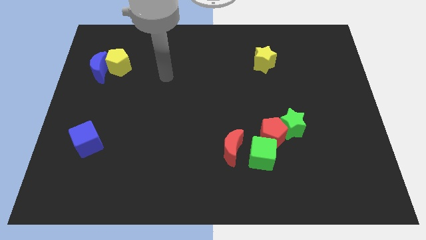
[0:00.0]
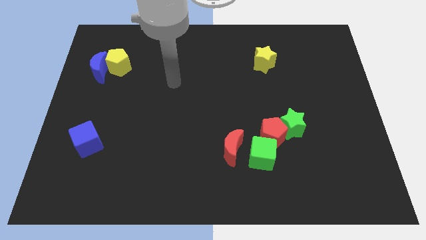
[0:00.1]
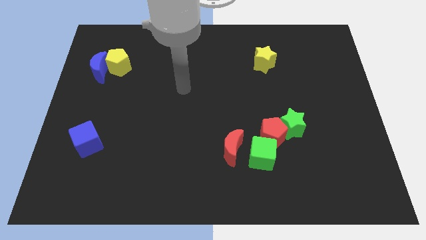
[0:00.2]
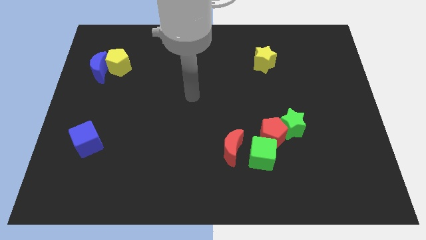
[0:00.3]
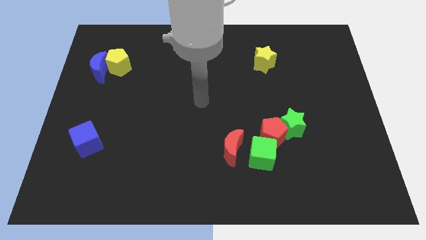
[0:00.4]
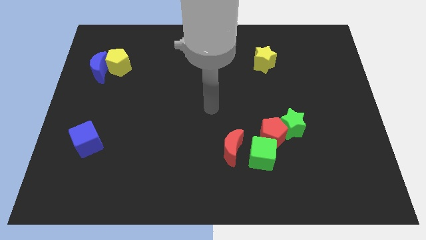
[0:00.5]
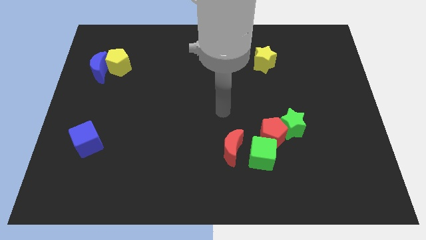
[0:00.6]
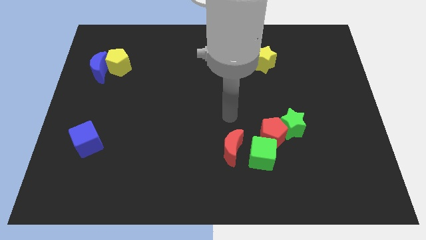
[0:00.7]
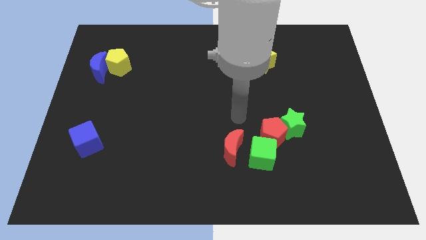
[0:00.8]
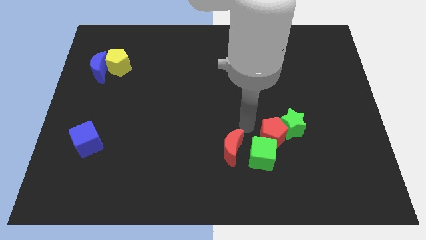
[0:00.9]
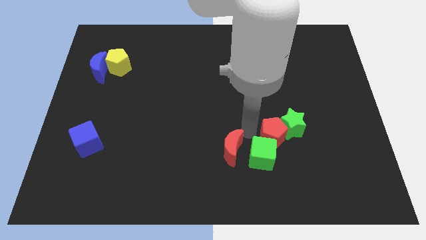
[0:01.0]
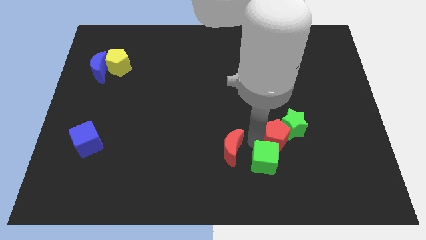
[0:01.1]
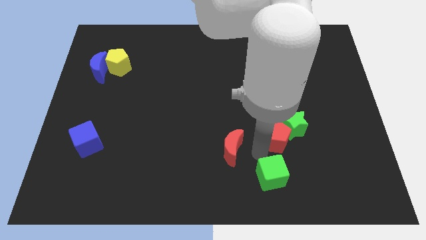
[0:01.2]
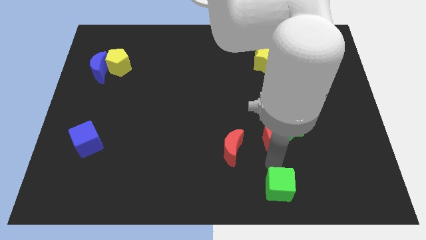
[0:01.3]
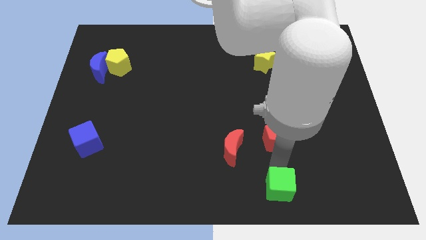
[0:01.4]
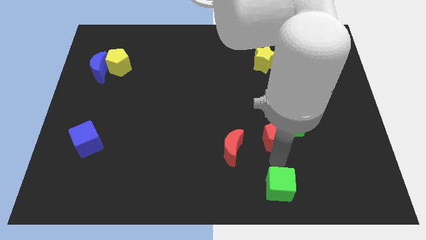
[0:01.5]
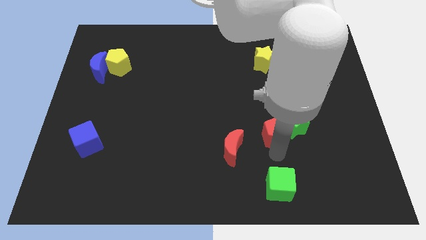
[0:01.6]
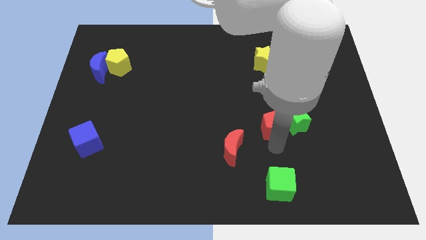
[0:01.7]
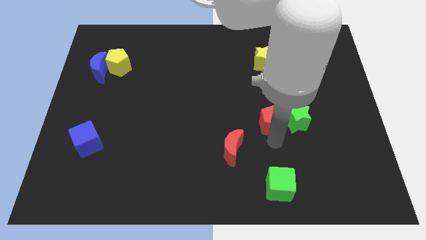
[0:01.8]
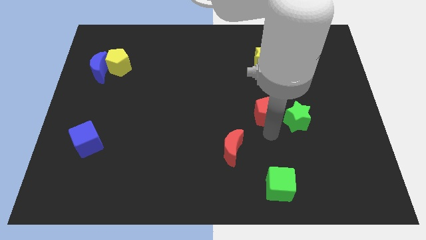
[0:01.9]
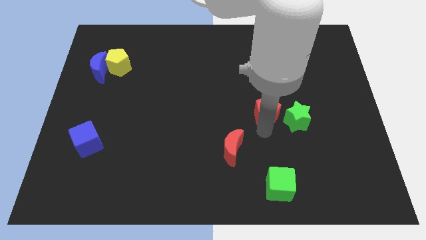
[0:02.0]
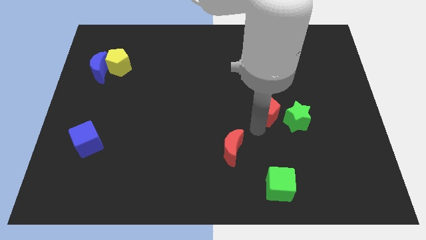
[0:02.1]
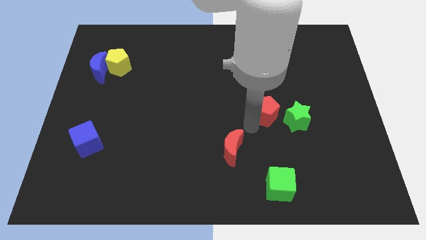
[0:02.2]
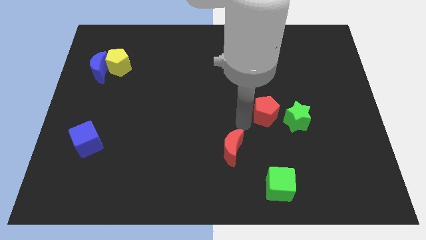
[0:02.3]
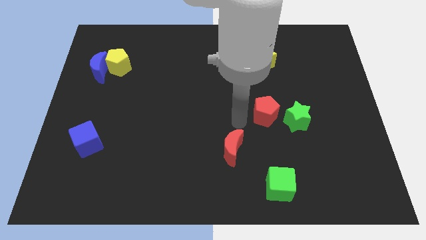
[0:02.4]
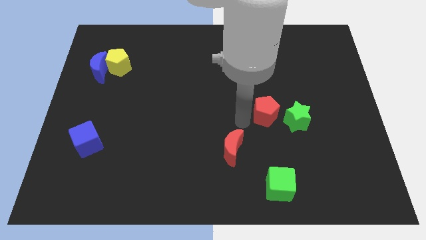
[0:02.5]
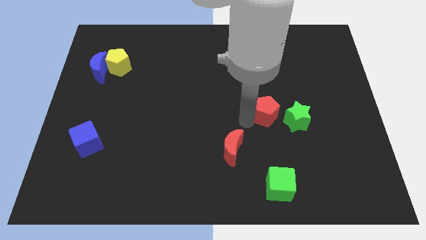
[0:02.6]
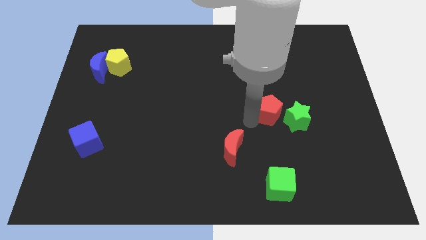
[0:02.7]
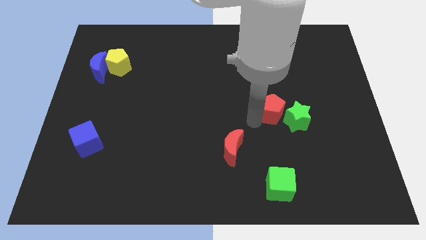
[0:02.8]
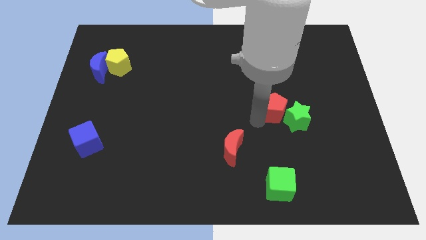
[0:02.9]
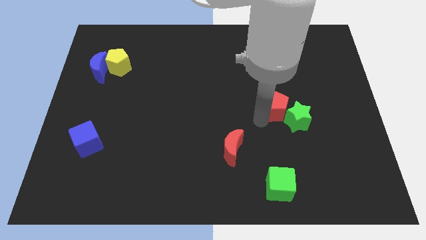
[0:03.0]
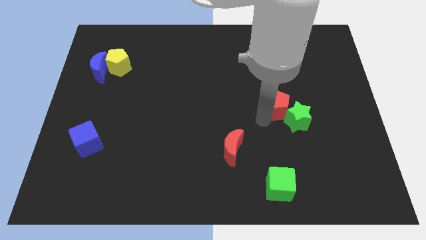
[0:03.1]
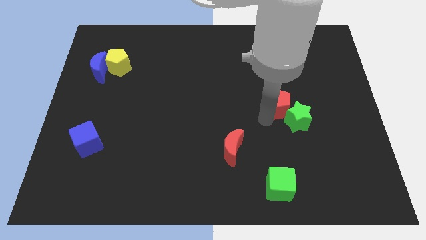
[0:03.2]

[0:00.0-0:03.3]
push the red pentagon up and to the right somewhat

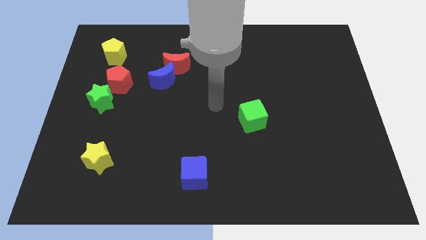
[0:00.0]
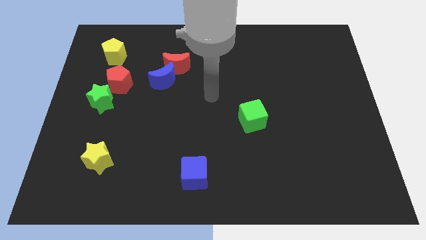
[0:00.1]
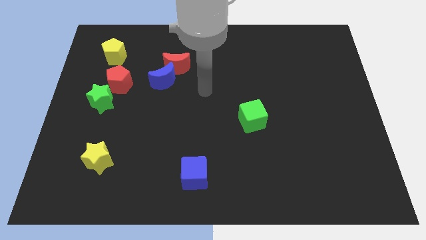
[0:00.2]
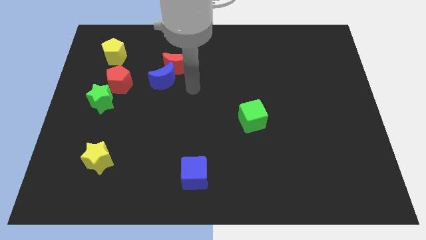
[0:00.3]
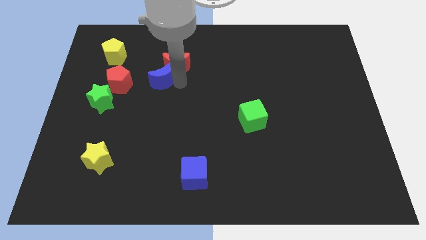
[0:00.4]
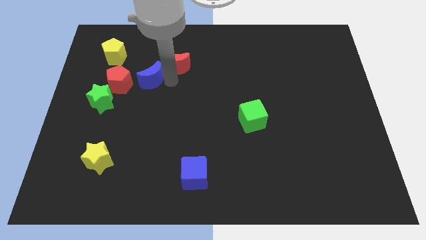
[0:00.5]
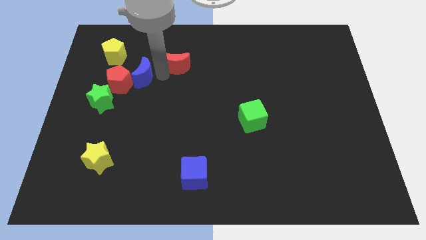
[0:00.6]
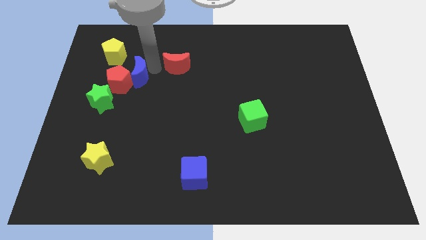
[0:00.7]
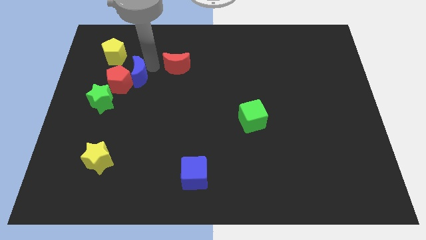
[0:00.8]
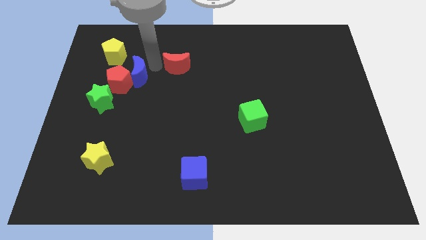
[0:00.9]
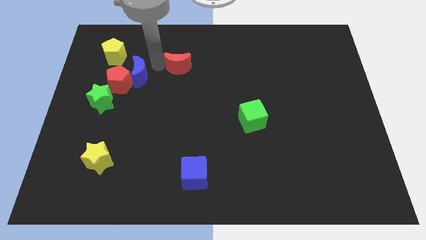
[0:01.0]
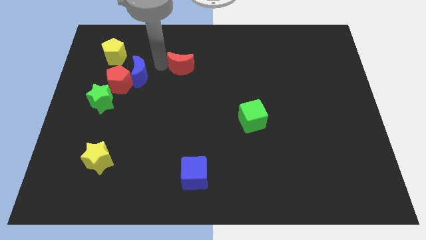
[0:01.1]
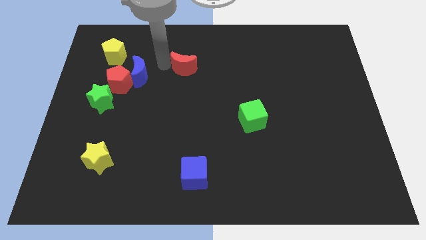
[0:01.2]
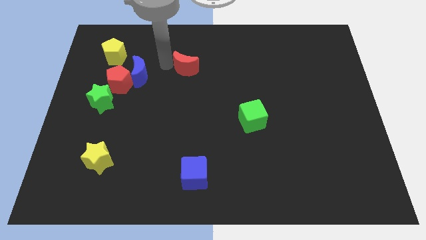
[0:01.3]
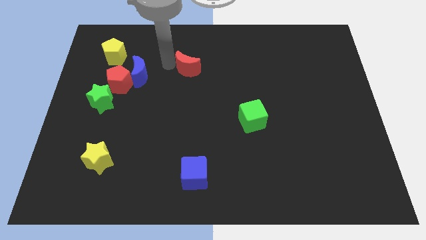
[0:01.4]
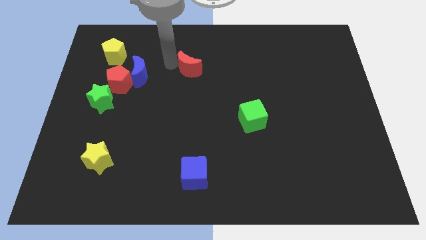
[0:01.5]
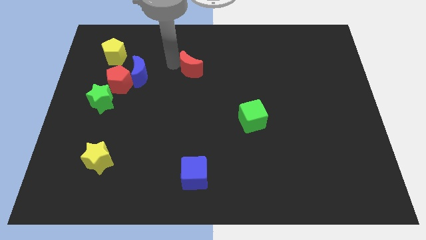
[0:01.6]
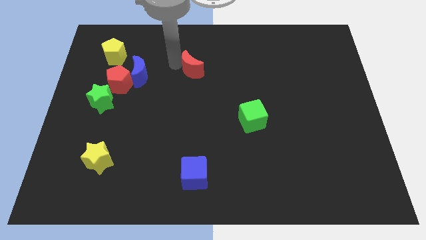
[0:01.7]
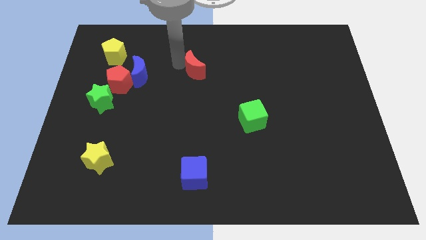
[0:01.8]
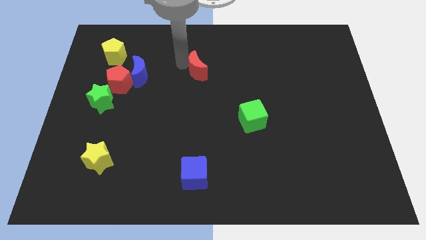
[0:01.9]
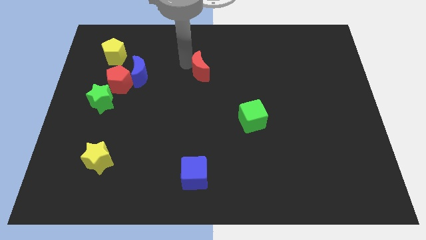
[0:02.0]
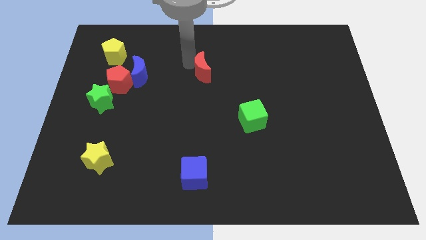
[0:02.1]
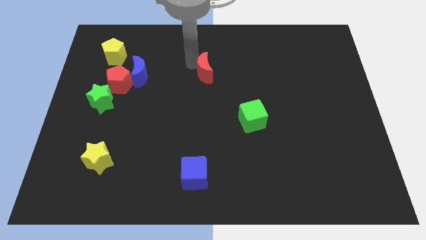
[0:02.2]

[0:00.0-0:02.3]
slide the red moon to the right a little bit

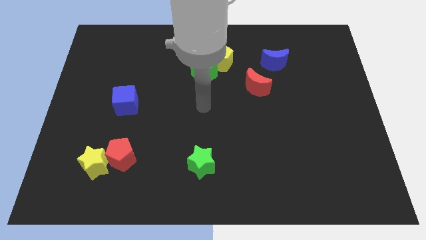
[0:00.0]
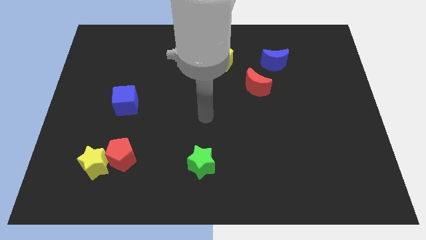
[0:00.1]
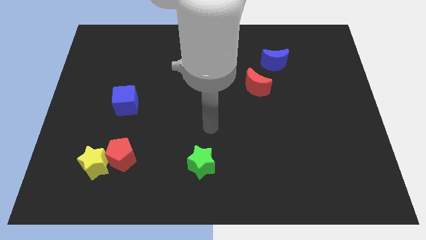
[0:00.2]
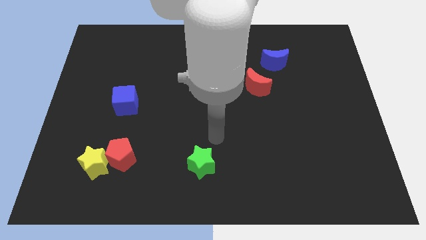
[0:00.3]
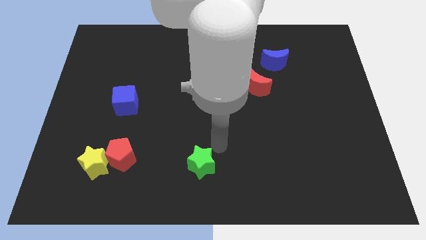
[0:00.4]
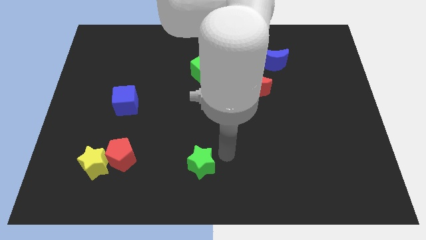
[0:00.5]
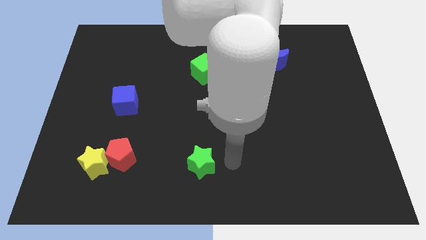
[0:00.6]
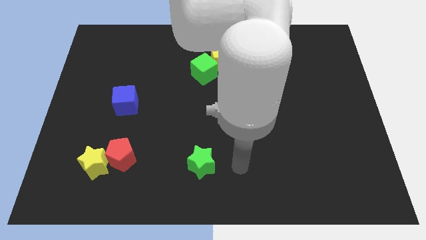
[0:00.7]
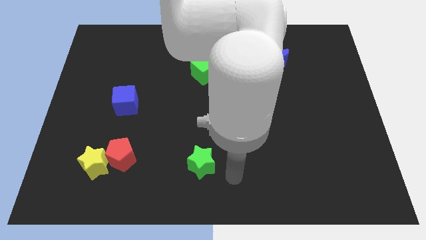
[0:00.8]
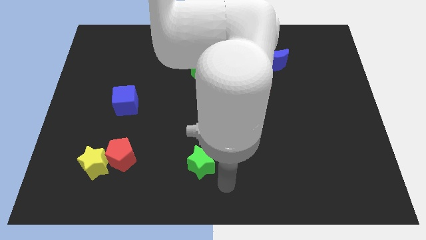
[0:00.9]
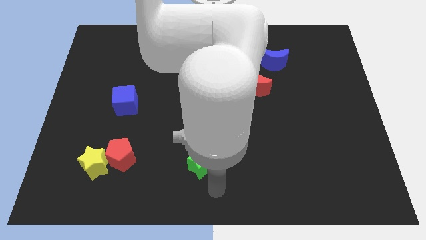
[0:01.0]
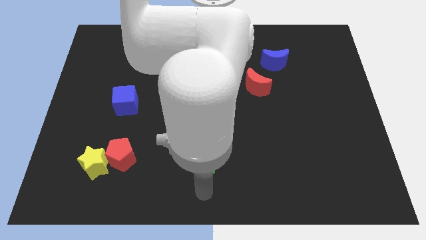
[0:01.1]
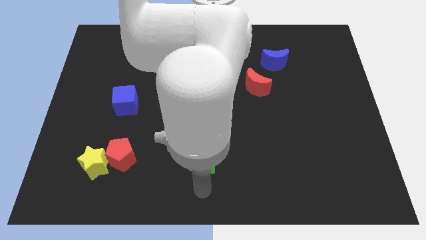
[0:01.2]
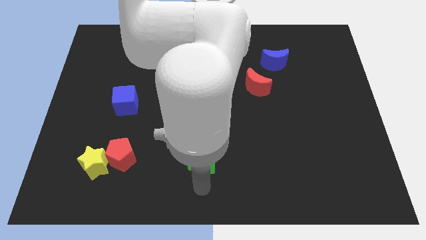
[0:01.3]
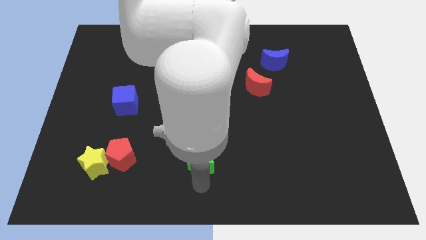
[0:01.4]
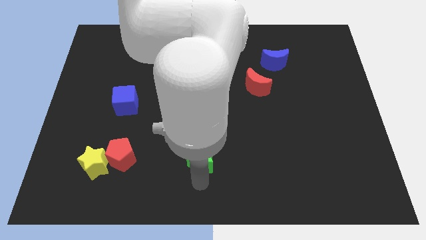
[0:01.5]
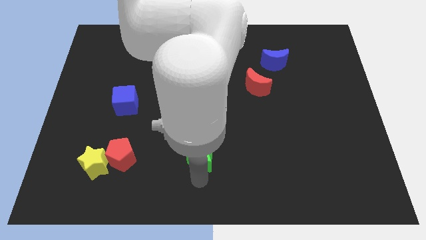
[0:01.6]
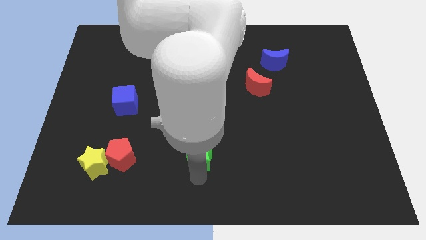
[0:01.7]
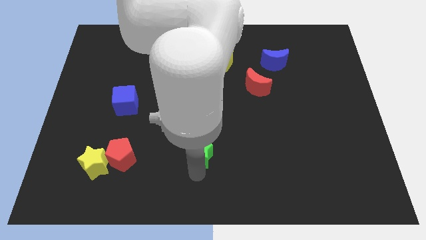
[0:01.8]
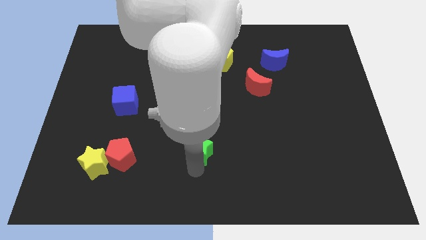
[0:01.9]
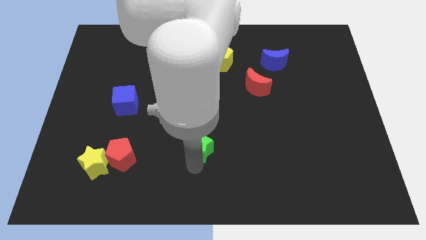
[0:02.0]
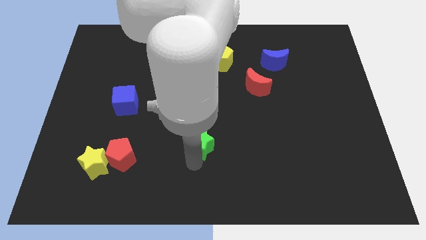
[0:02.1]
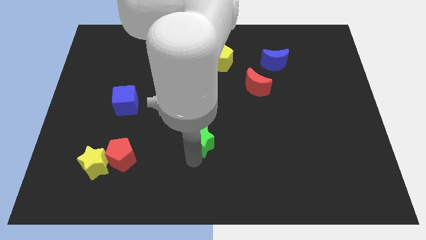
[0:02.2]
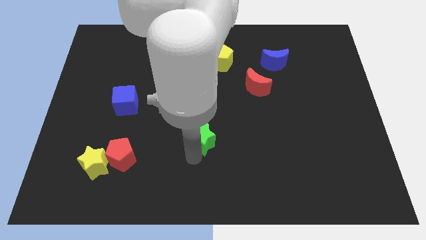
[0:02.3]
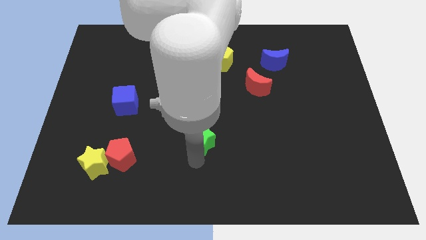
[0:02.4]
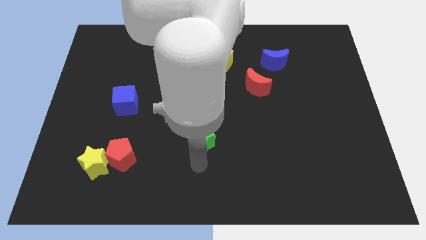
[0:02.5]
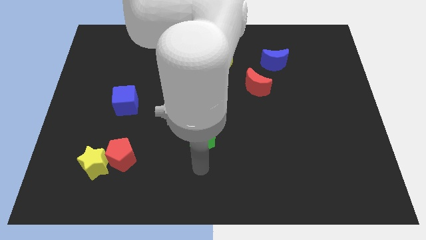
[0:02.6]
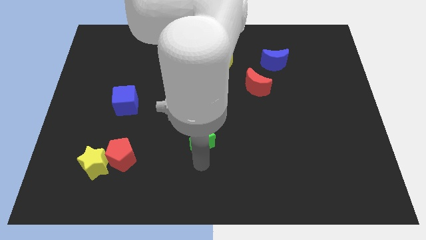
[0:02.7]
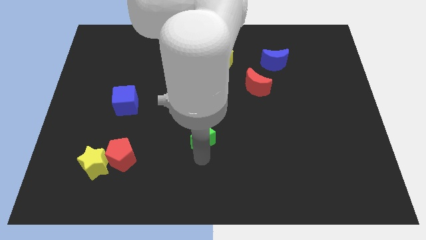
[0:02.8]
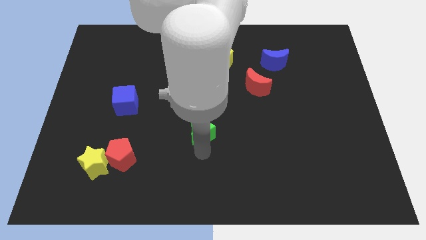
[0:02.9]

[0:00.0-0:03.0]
slide the green star up somewhat
